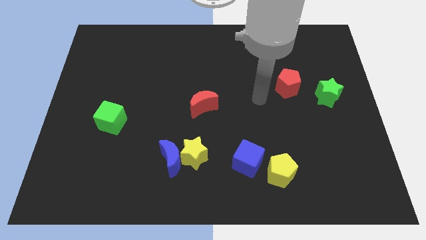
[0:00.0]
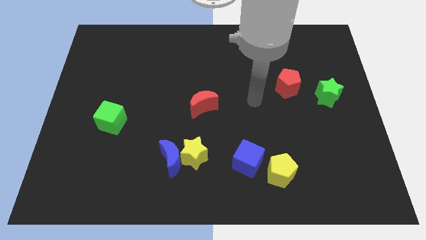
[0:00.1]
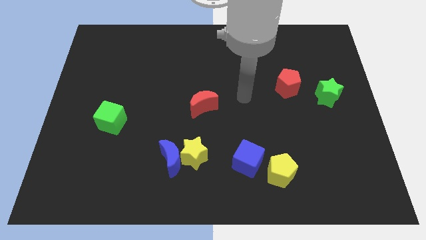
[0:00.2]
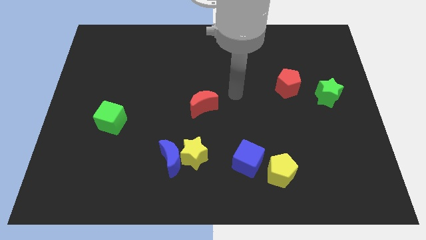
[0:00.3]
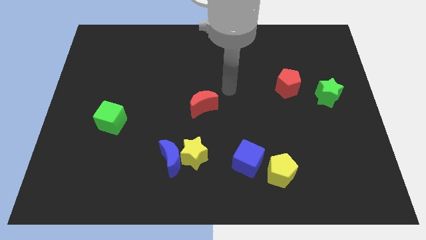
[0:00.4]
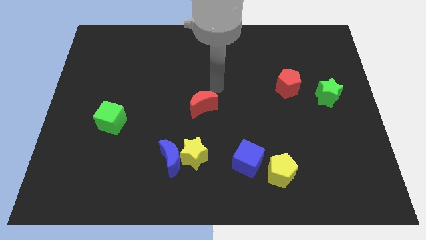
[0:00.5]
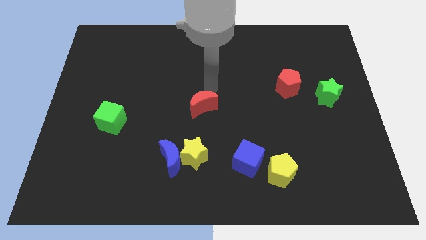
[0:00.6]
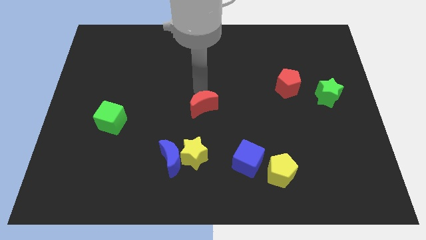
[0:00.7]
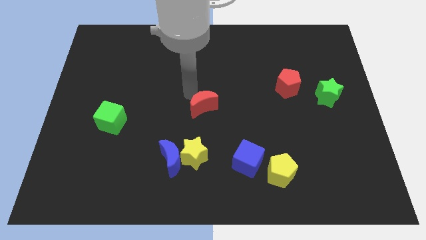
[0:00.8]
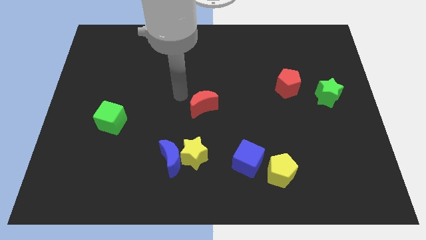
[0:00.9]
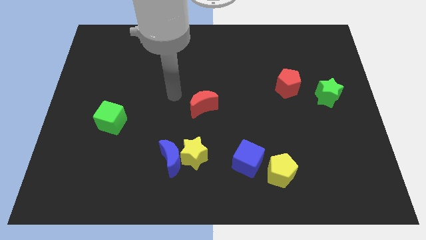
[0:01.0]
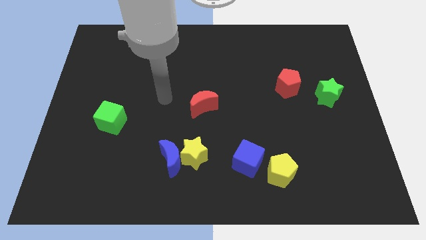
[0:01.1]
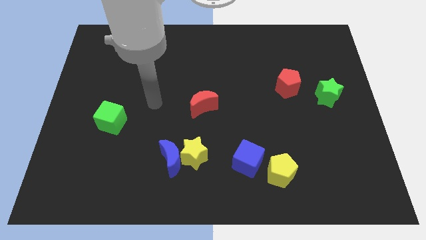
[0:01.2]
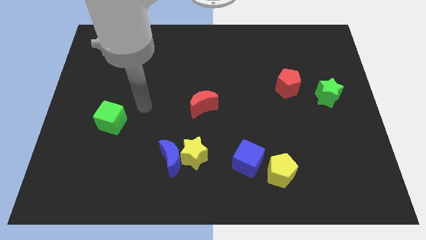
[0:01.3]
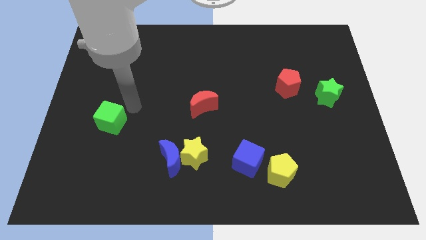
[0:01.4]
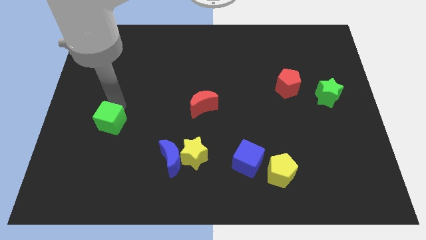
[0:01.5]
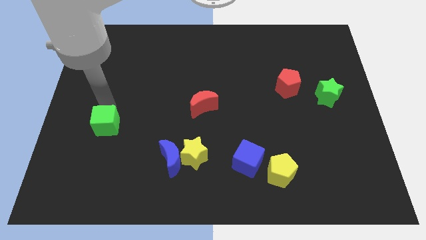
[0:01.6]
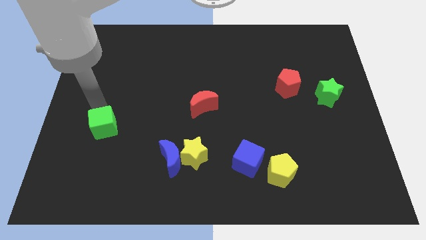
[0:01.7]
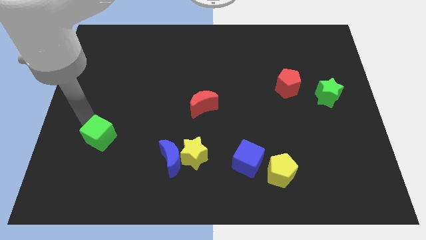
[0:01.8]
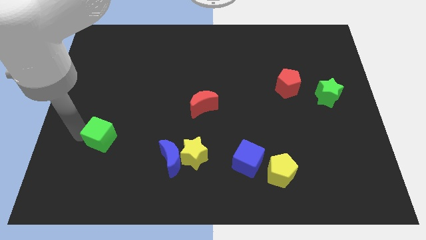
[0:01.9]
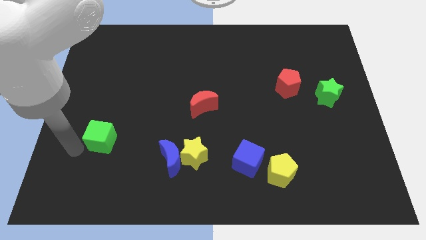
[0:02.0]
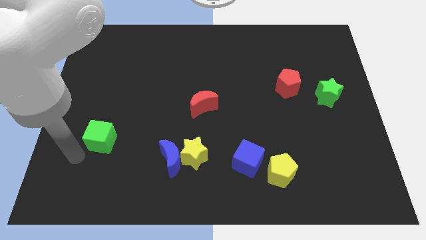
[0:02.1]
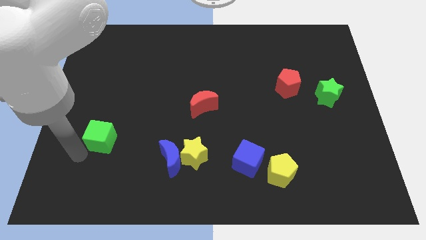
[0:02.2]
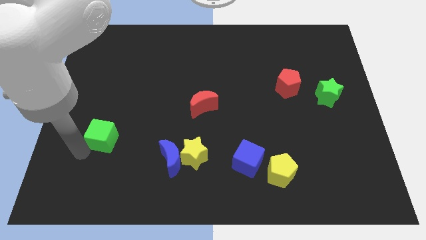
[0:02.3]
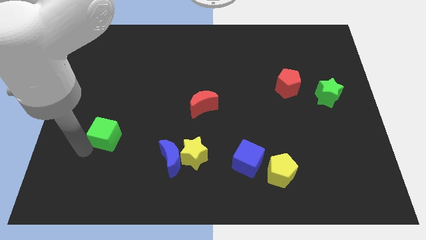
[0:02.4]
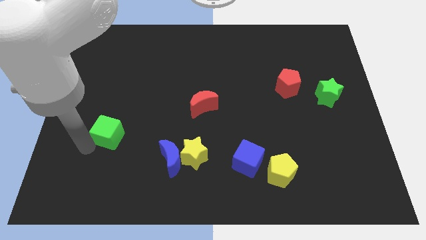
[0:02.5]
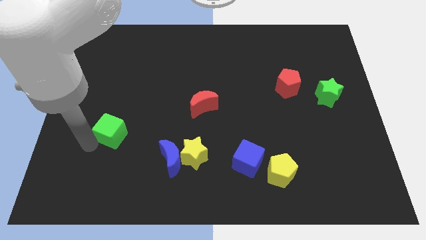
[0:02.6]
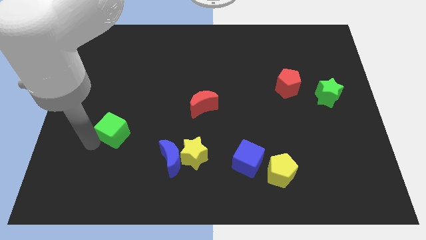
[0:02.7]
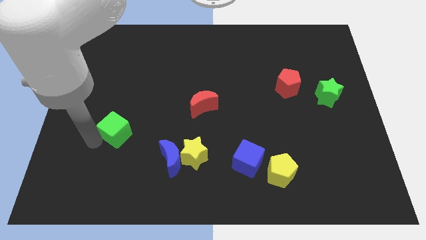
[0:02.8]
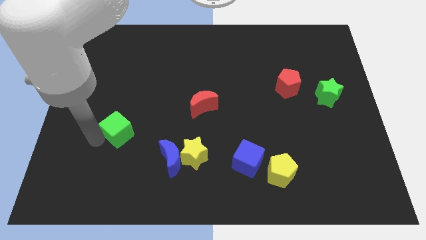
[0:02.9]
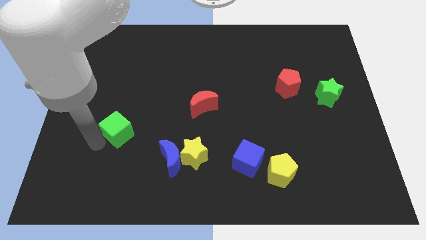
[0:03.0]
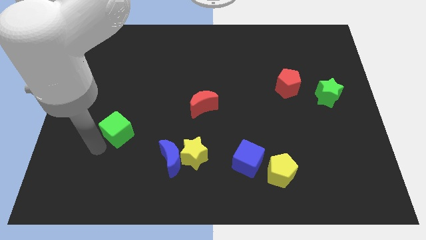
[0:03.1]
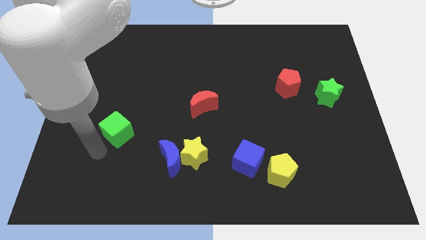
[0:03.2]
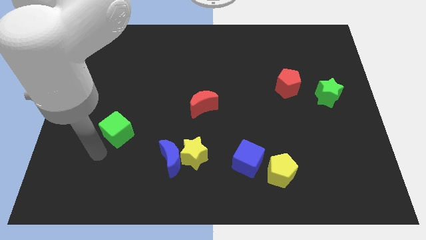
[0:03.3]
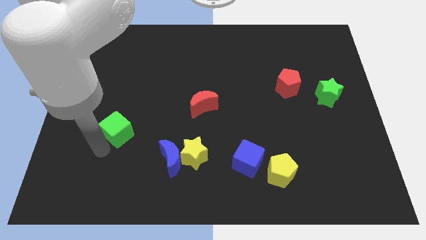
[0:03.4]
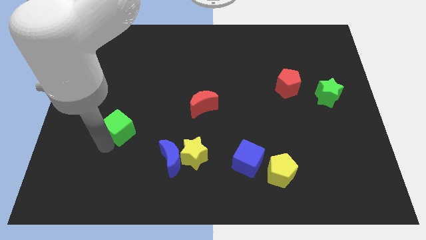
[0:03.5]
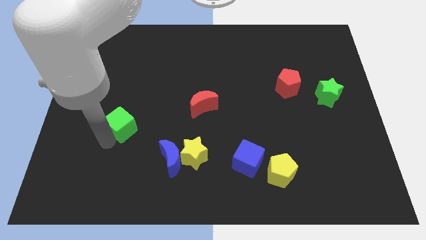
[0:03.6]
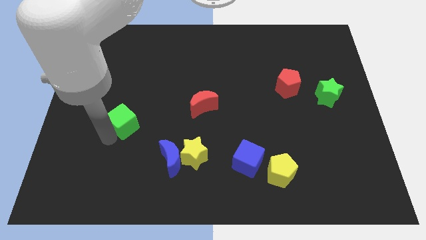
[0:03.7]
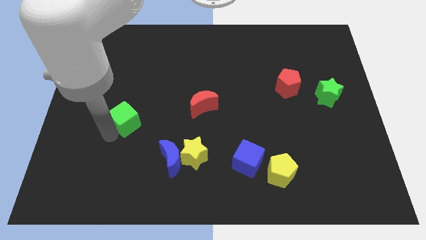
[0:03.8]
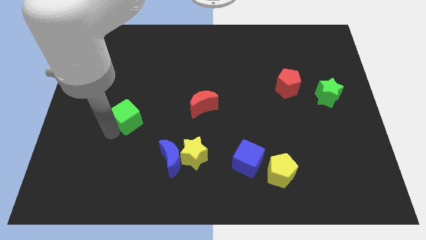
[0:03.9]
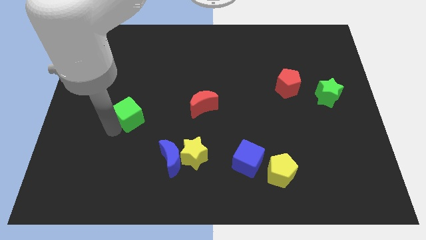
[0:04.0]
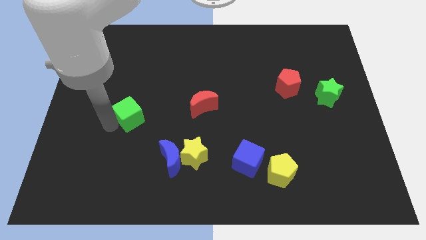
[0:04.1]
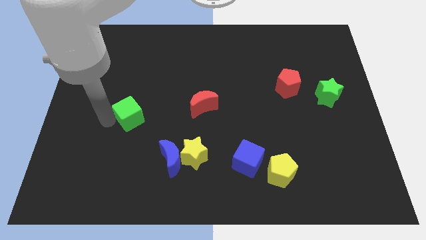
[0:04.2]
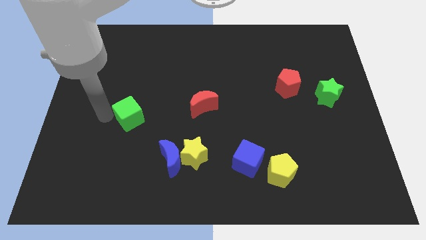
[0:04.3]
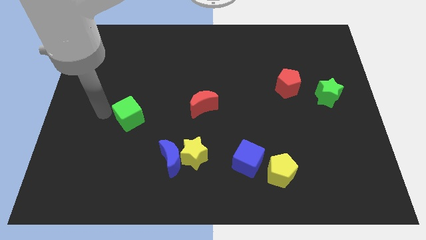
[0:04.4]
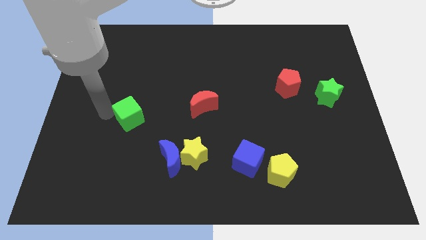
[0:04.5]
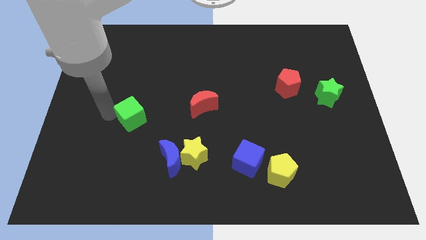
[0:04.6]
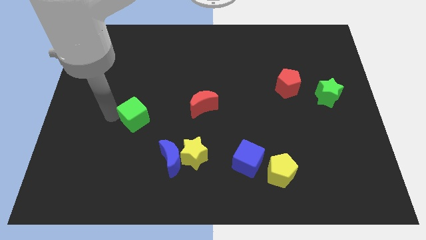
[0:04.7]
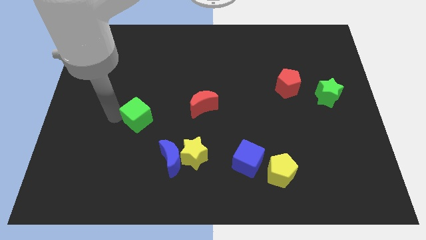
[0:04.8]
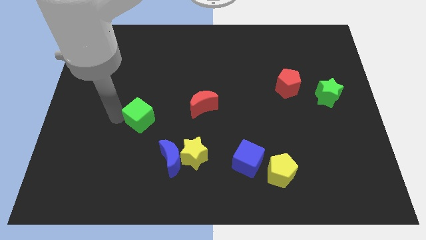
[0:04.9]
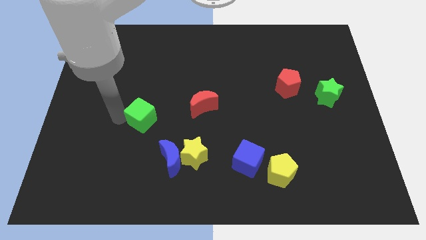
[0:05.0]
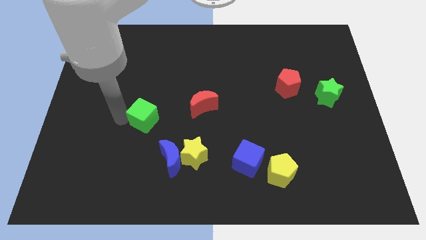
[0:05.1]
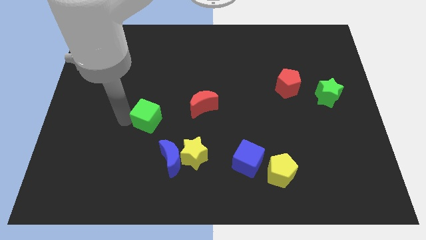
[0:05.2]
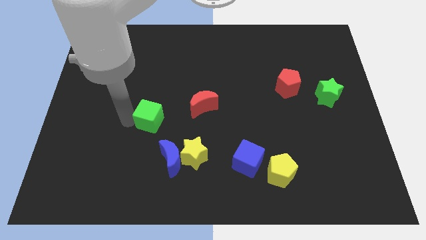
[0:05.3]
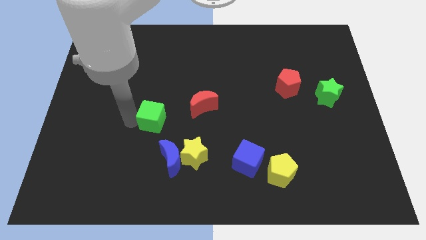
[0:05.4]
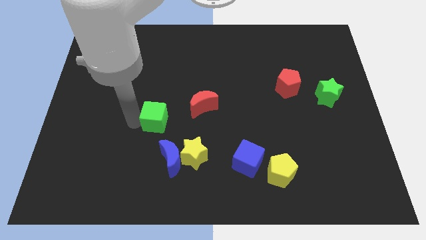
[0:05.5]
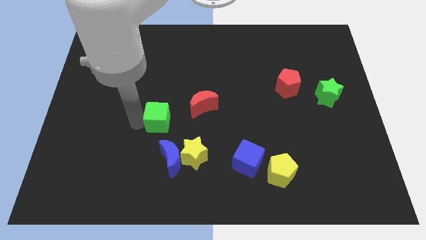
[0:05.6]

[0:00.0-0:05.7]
put the green cube to the bottom left of the red moon

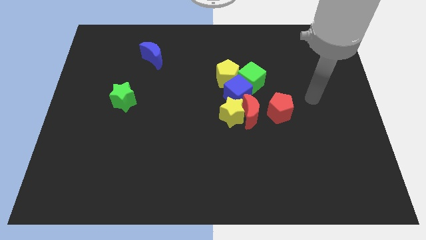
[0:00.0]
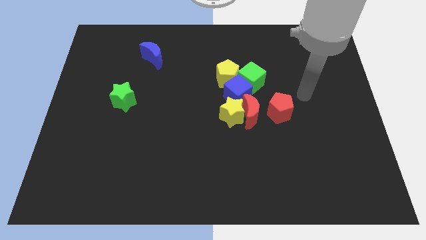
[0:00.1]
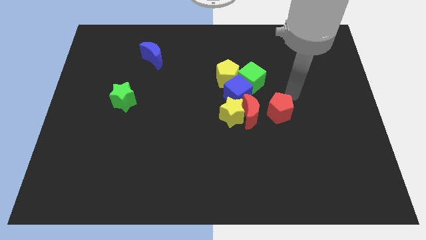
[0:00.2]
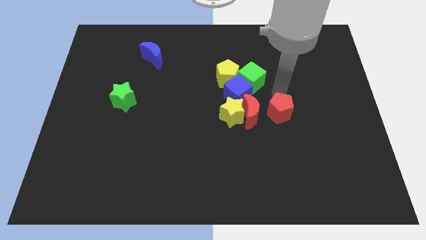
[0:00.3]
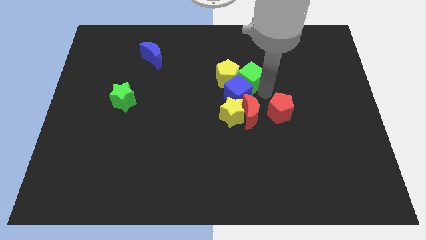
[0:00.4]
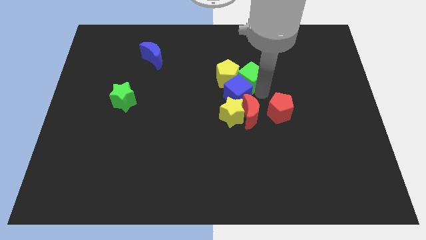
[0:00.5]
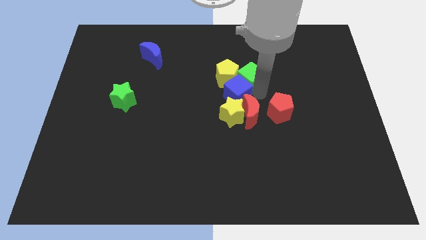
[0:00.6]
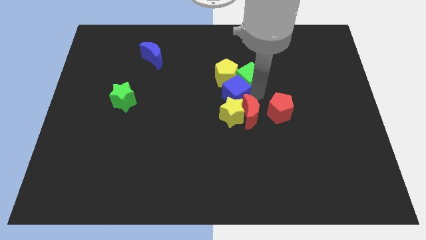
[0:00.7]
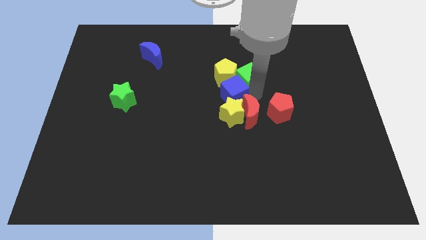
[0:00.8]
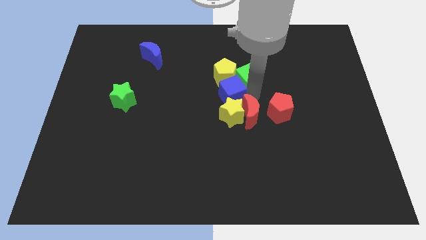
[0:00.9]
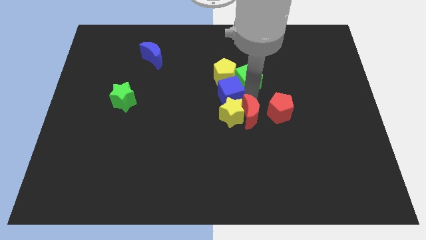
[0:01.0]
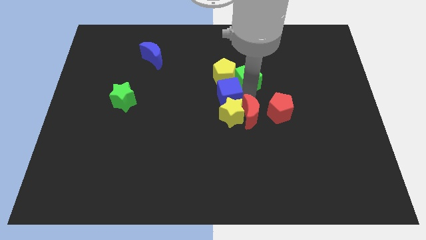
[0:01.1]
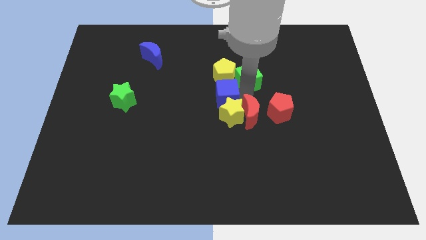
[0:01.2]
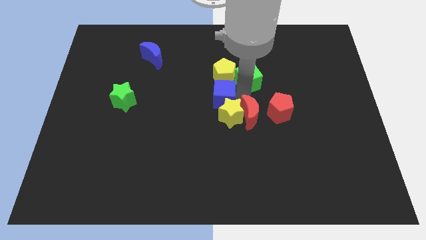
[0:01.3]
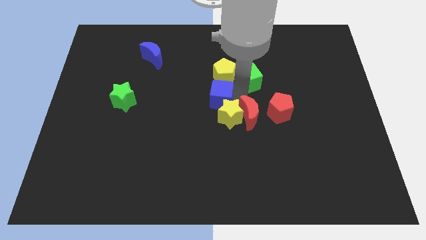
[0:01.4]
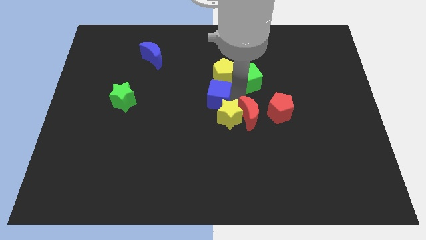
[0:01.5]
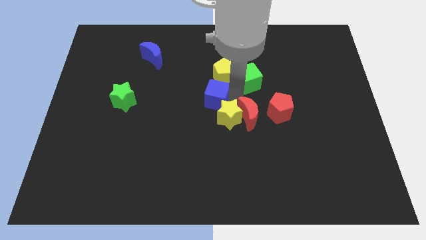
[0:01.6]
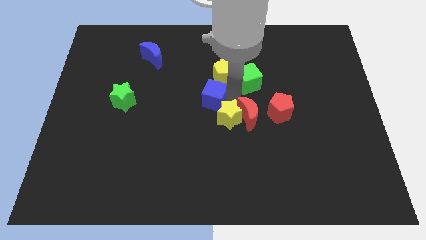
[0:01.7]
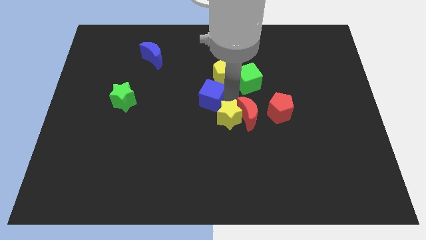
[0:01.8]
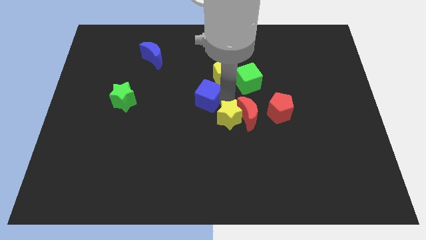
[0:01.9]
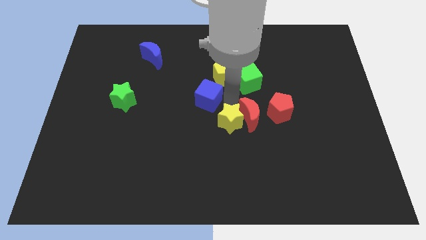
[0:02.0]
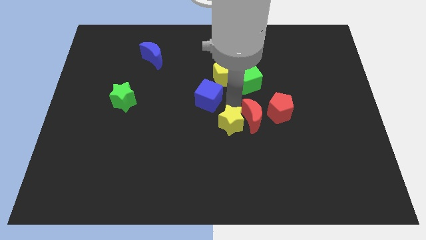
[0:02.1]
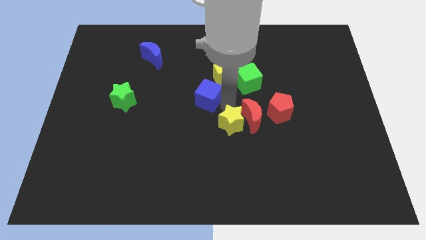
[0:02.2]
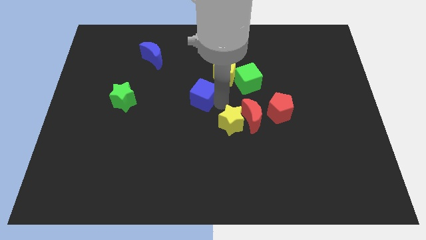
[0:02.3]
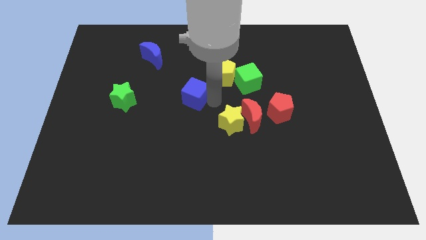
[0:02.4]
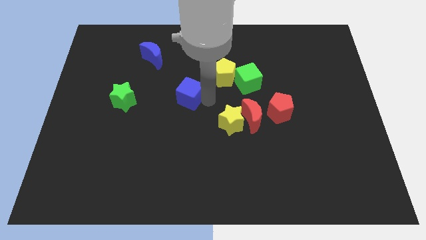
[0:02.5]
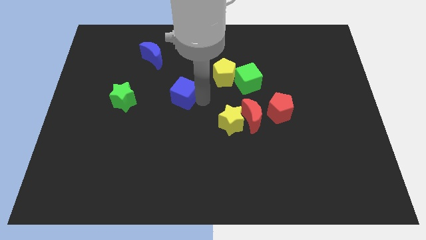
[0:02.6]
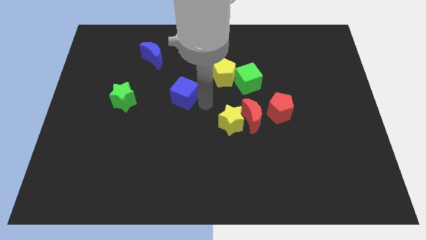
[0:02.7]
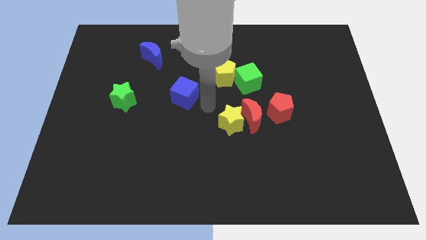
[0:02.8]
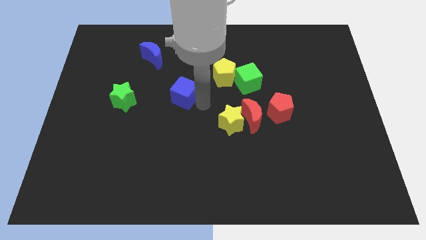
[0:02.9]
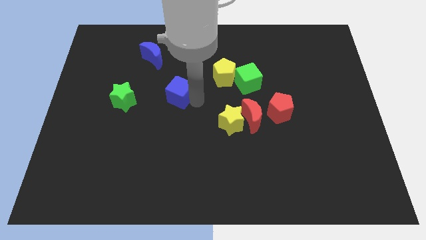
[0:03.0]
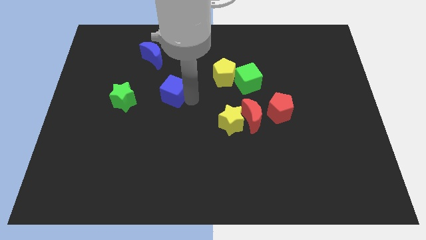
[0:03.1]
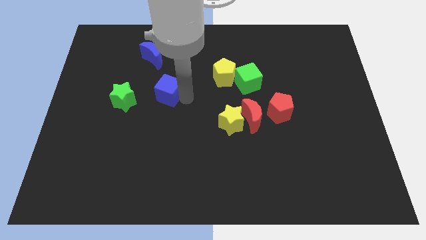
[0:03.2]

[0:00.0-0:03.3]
put the blue cube to the bottom side of the blue moon
